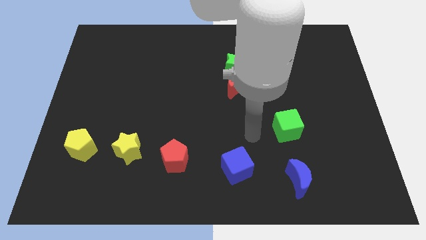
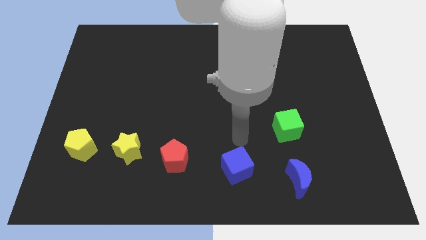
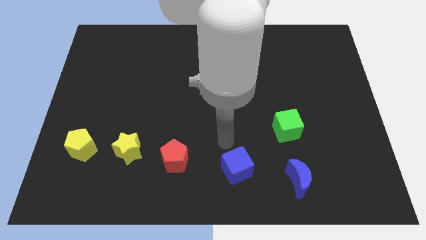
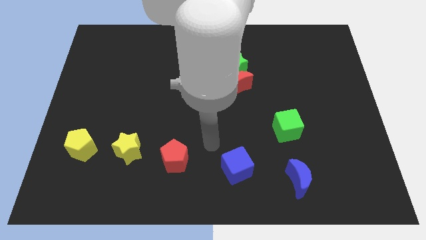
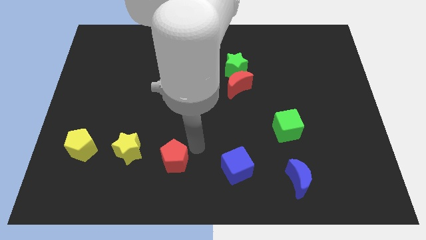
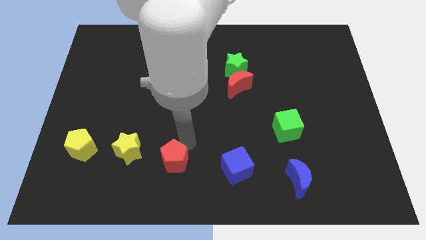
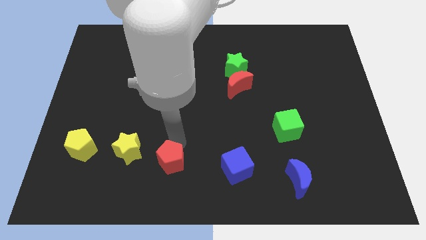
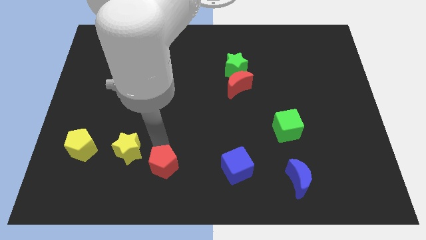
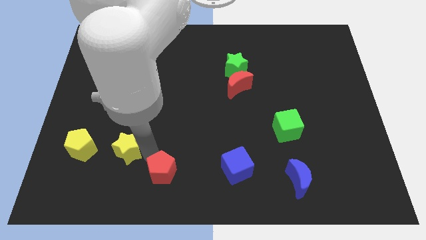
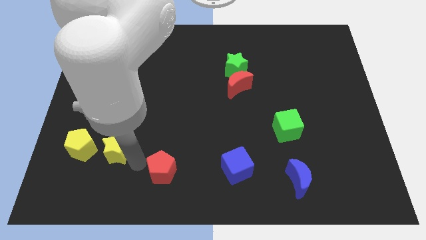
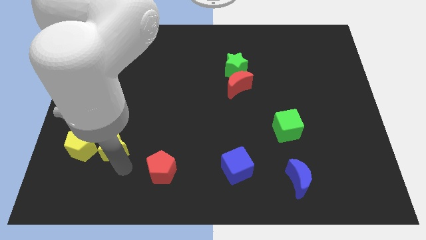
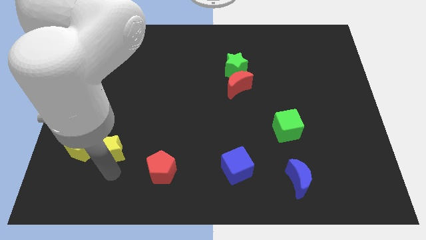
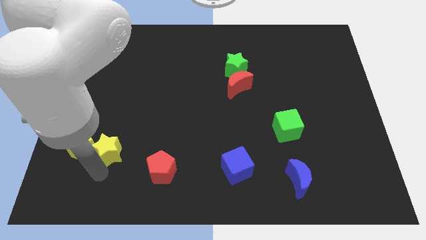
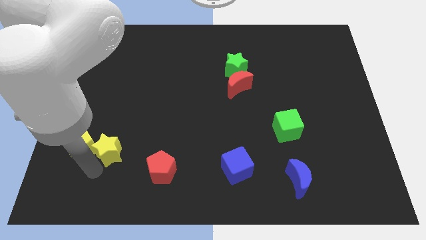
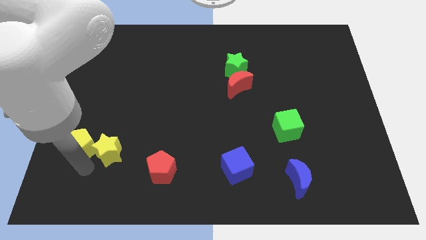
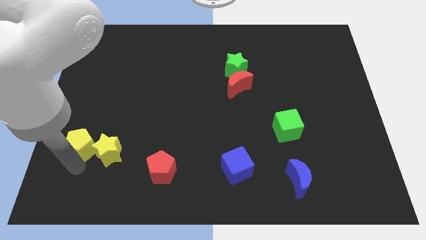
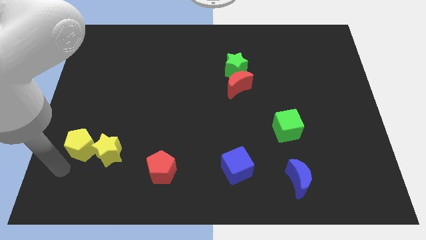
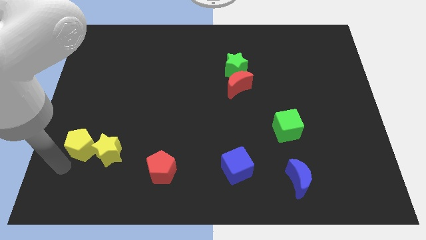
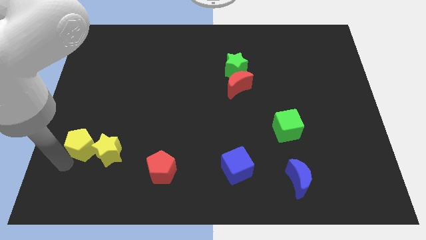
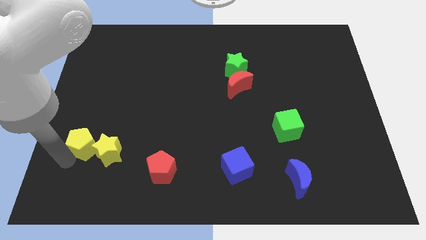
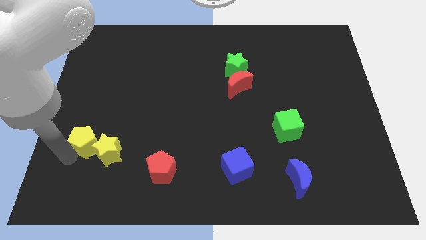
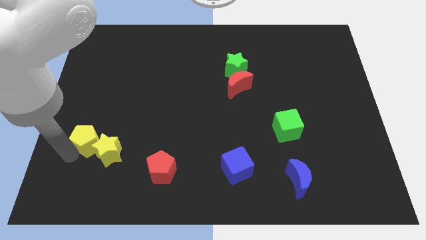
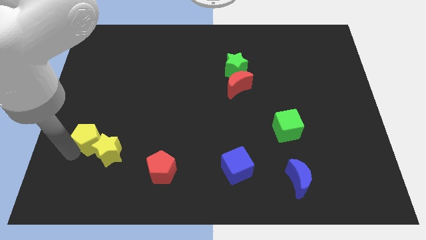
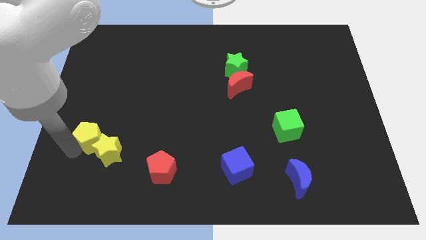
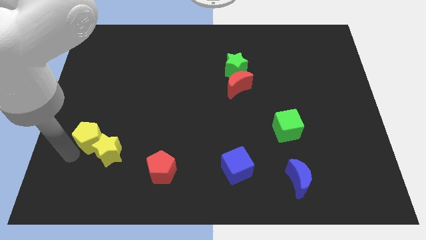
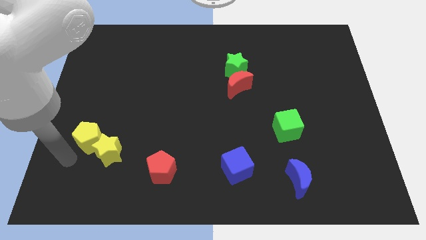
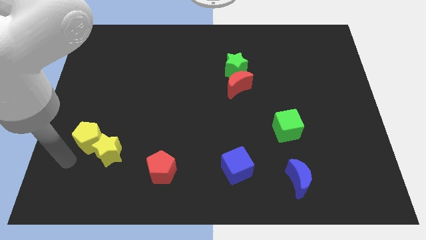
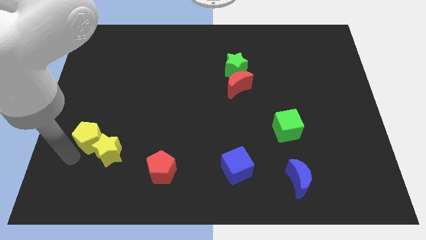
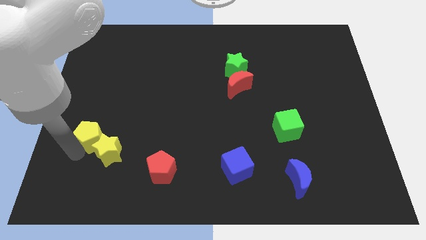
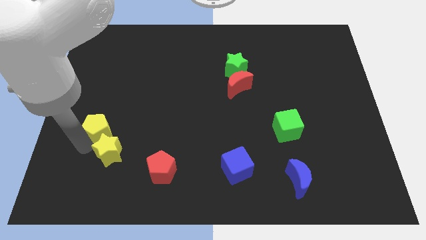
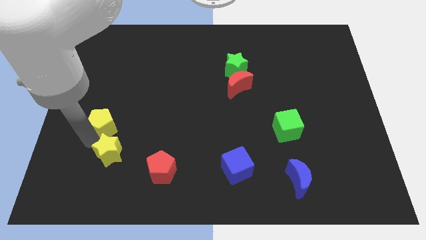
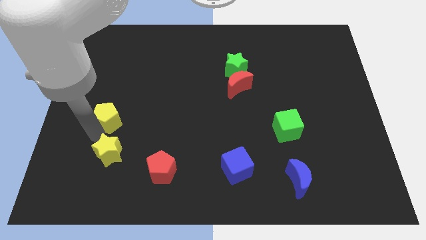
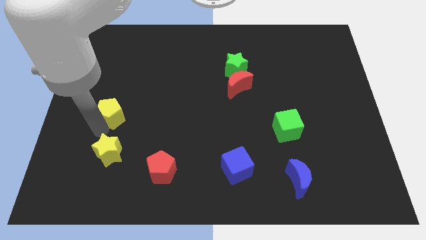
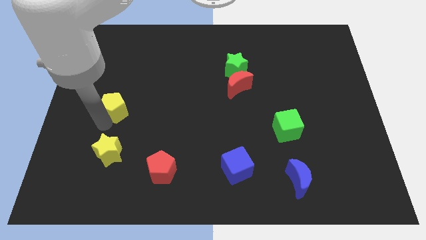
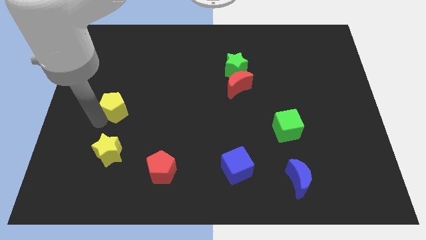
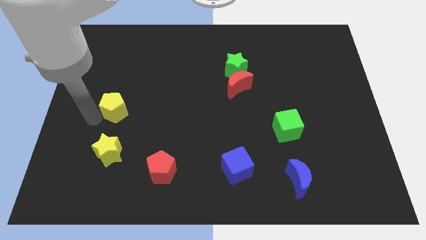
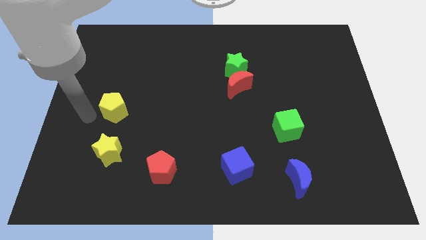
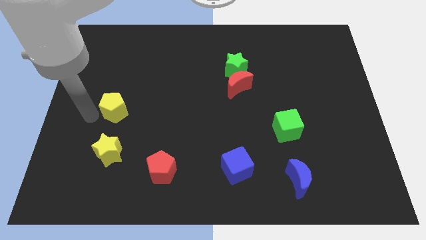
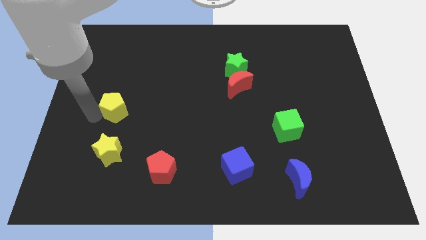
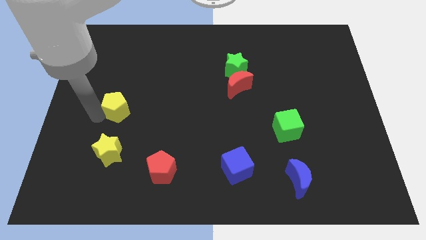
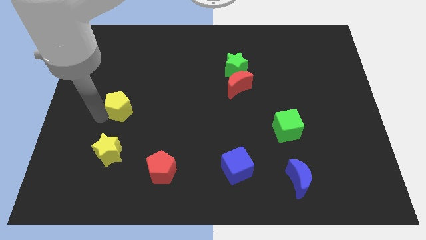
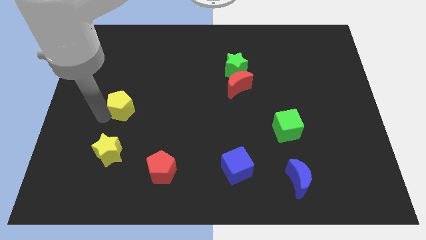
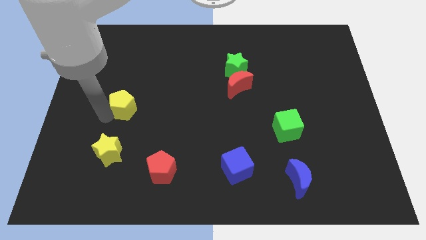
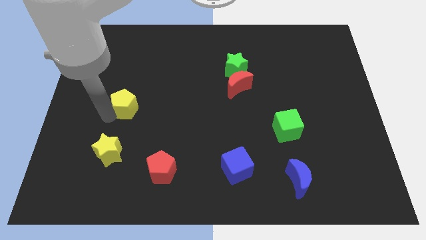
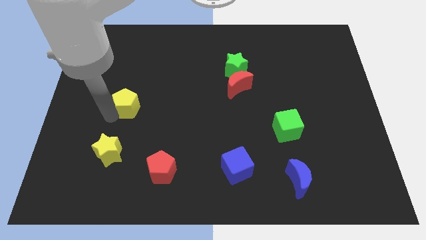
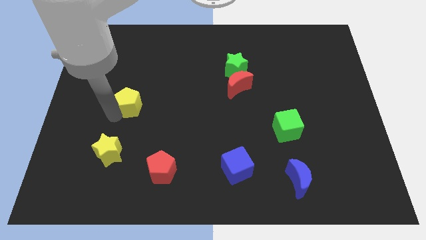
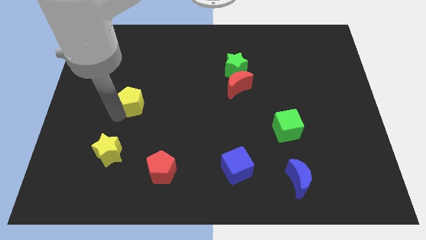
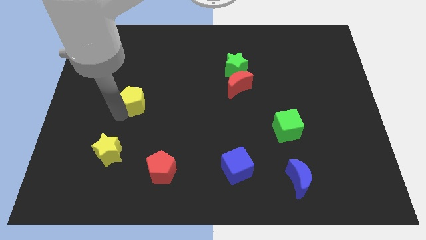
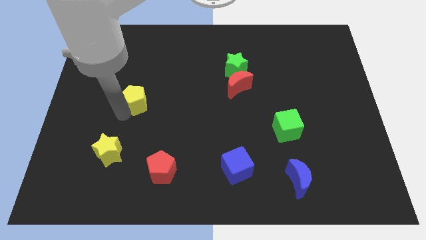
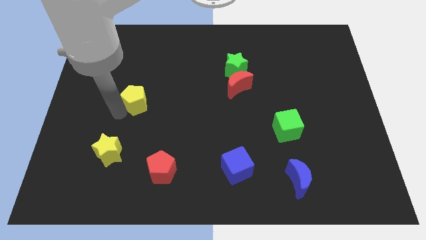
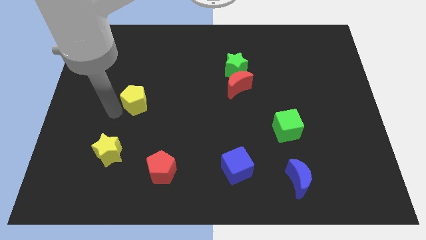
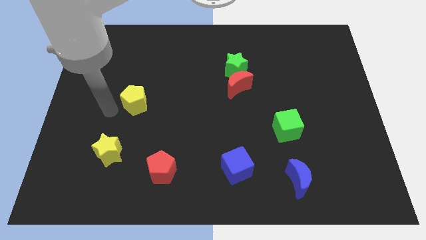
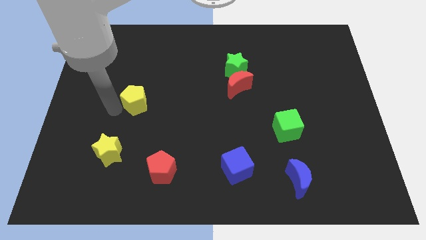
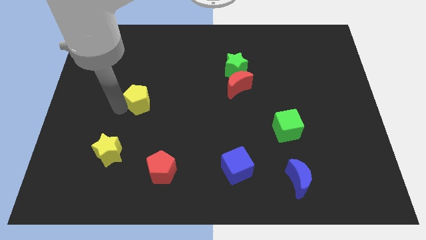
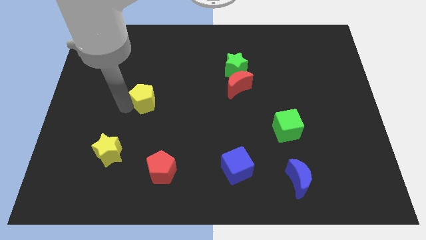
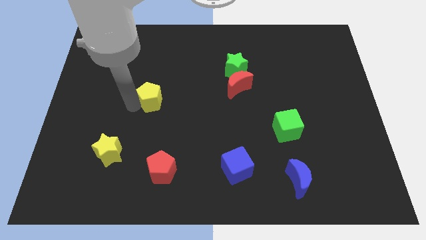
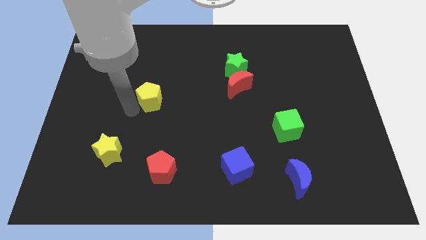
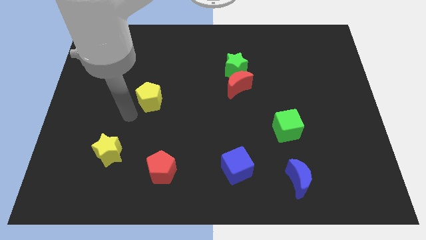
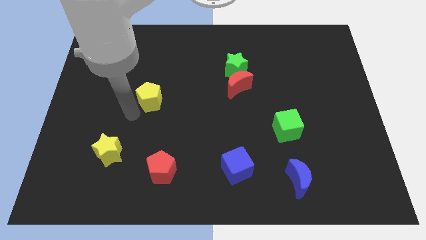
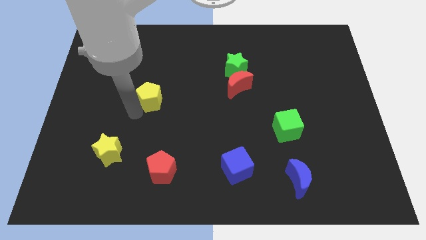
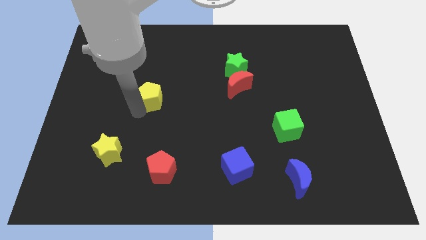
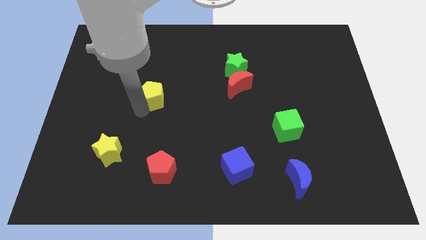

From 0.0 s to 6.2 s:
move the yellow pentagon diagonally up and to the right

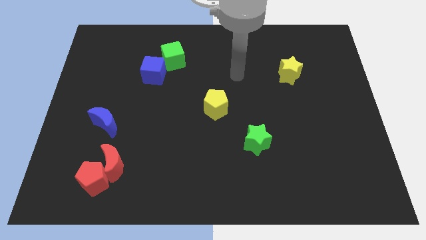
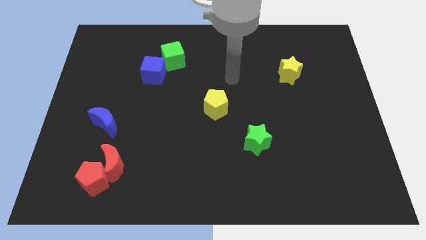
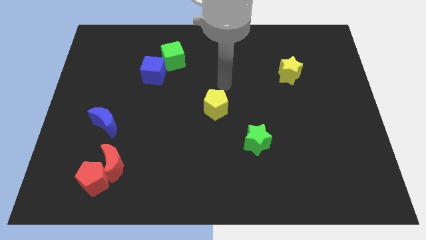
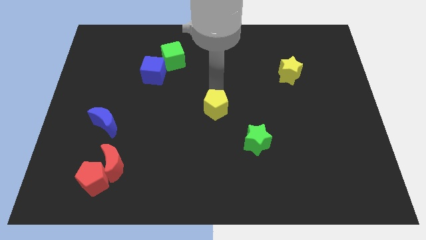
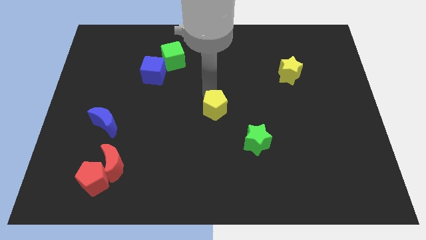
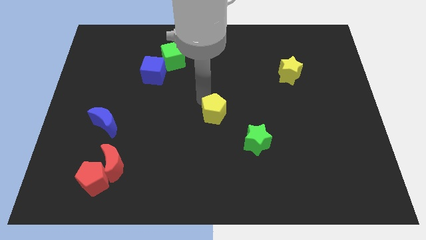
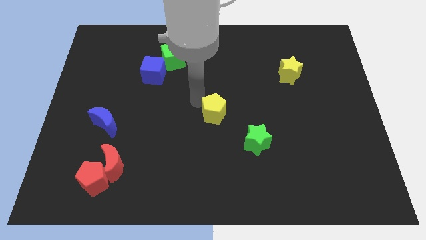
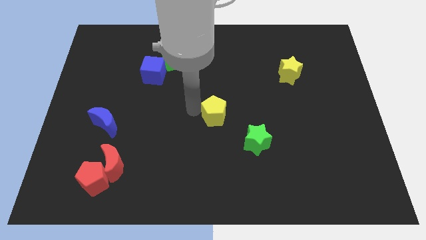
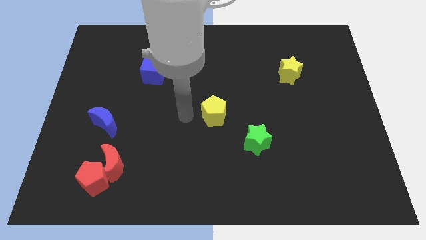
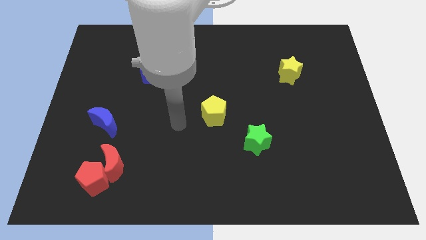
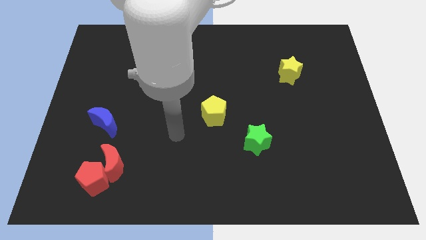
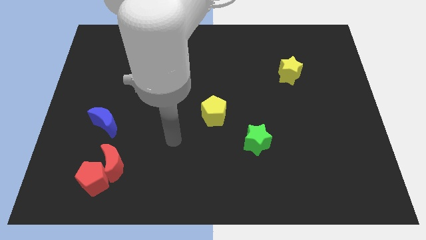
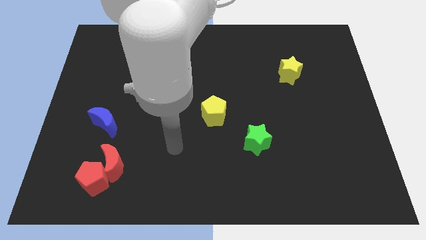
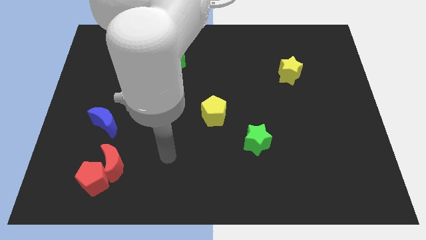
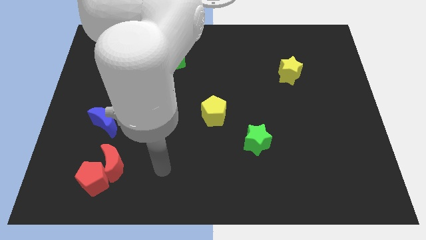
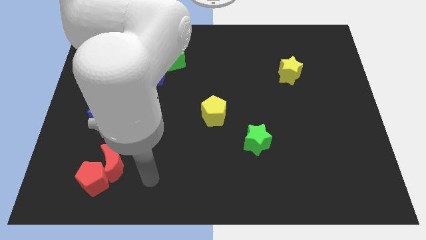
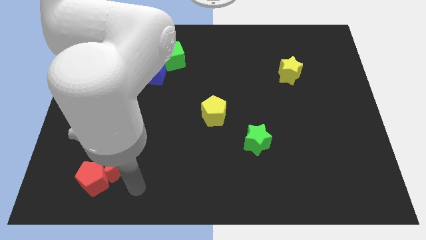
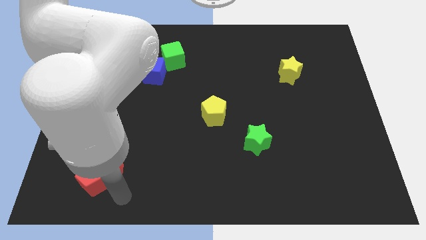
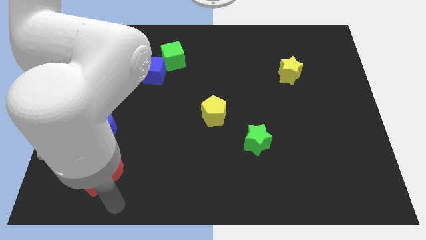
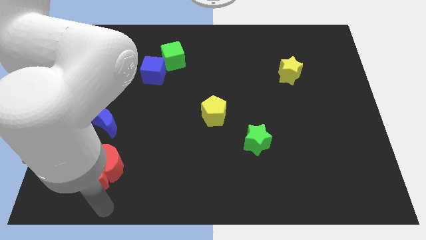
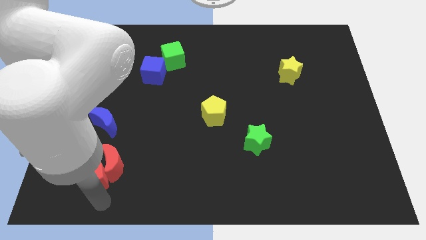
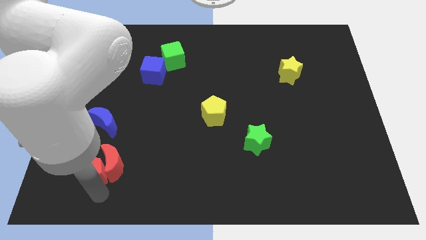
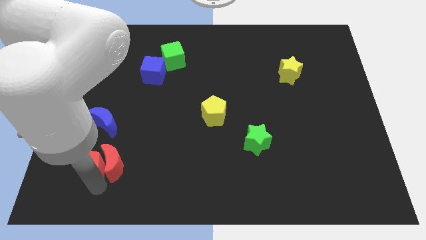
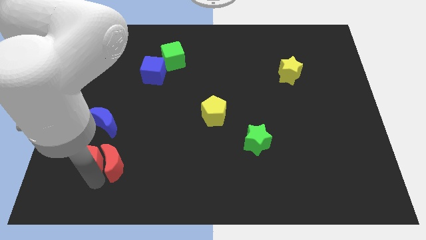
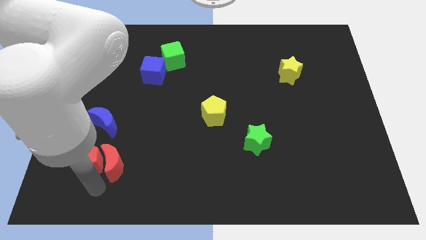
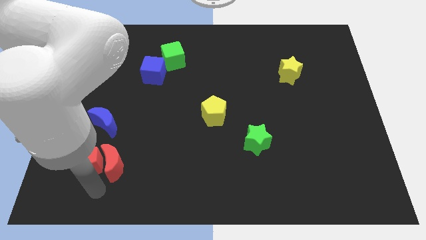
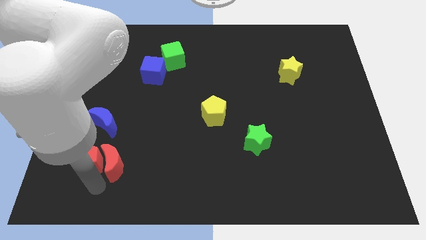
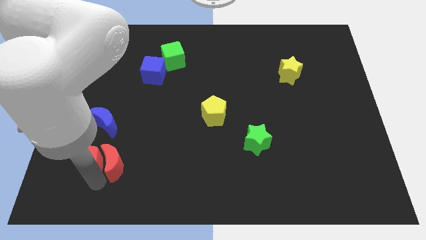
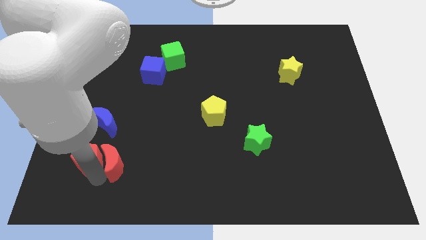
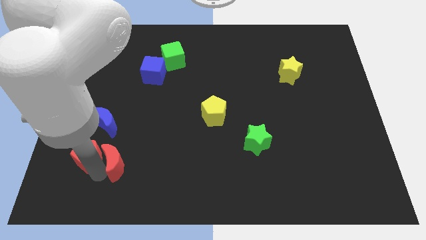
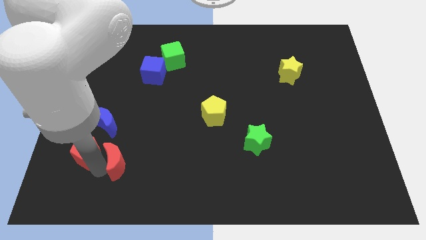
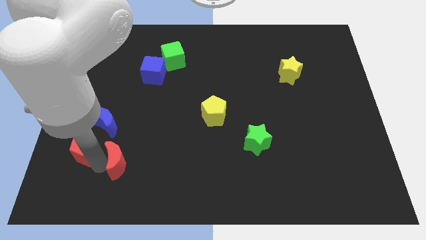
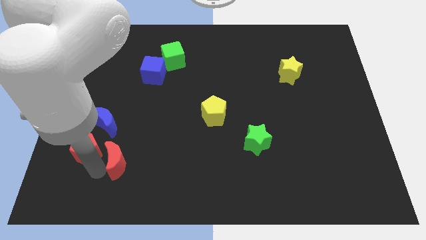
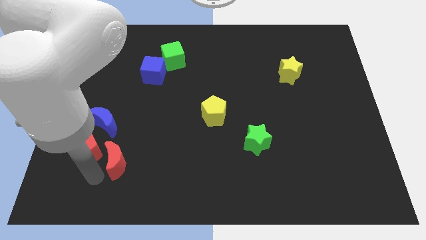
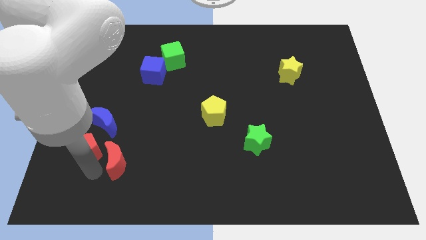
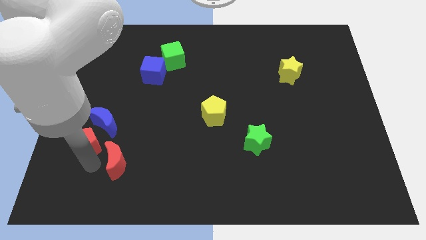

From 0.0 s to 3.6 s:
slide the red pentagon a bit up
